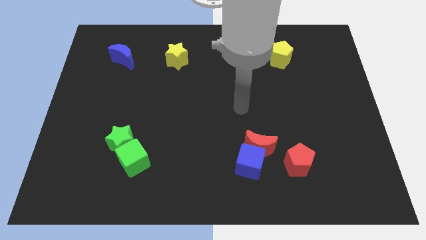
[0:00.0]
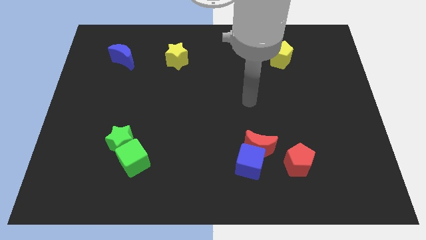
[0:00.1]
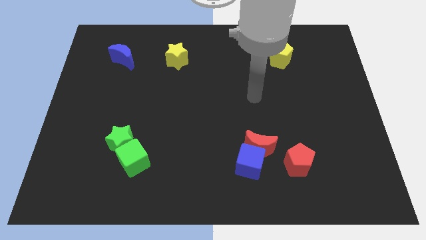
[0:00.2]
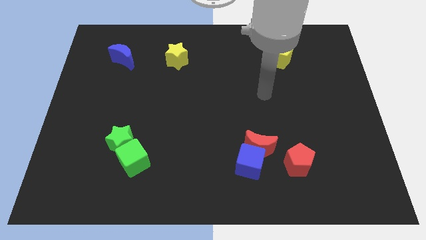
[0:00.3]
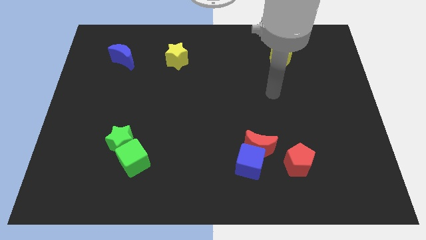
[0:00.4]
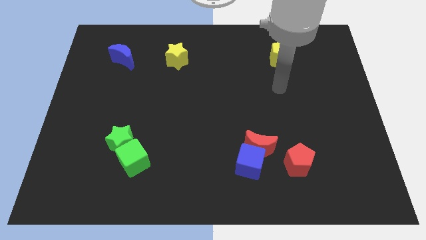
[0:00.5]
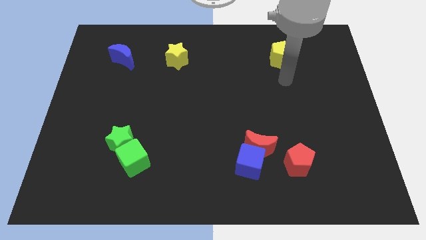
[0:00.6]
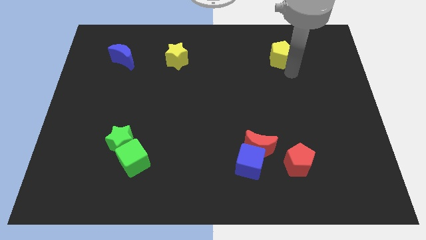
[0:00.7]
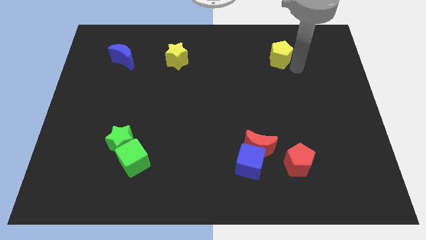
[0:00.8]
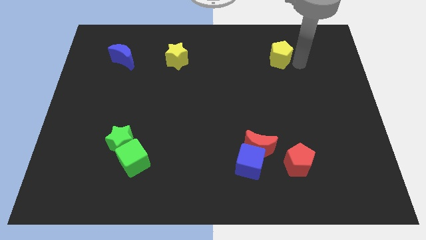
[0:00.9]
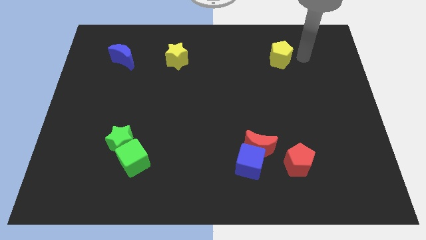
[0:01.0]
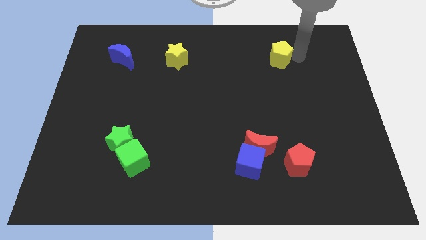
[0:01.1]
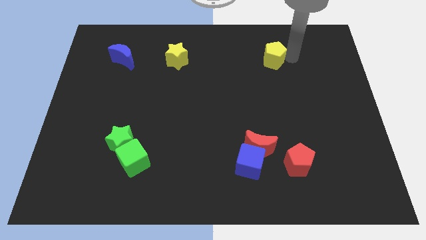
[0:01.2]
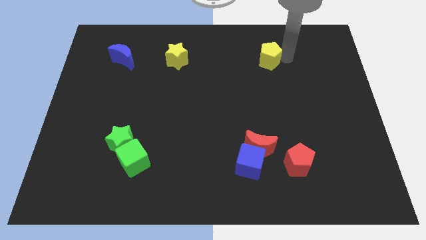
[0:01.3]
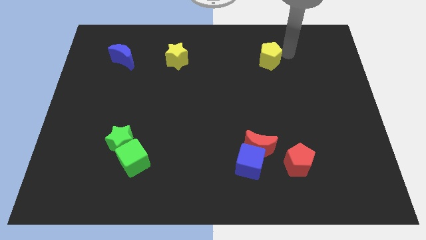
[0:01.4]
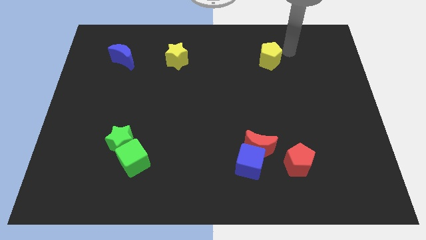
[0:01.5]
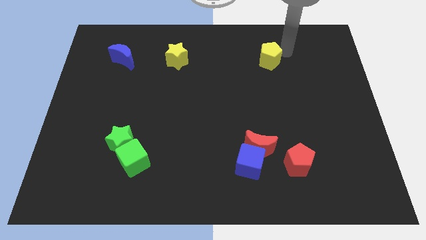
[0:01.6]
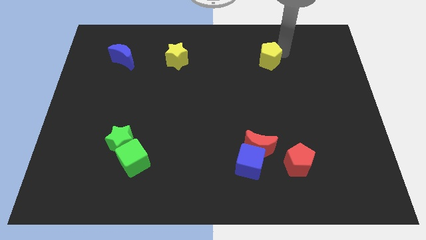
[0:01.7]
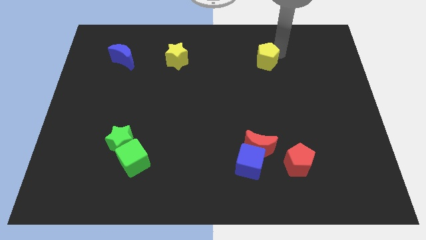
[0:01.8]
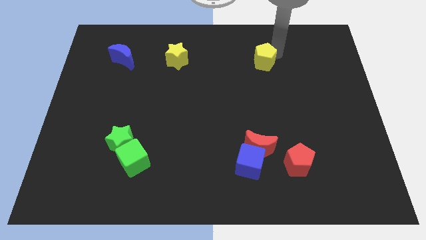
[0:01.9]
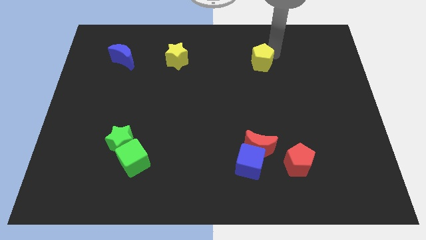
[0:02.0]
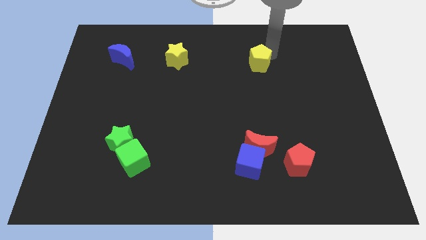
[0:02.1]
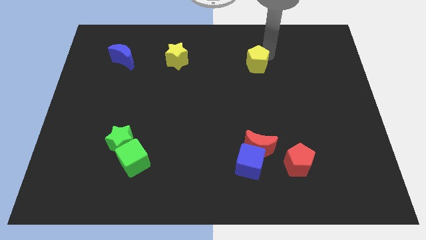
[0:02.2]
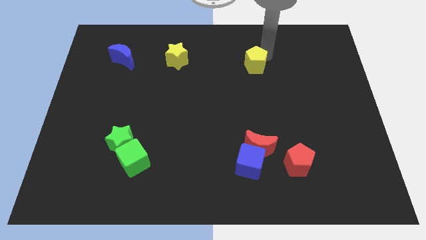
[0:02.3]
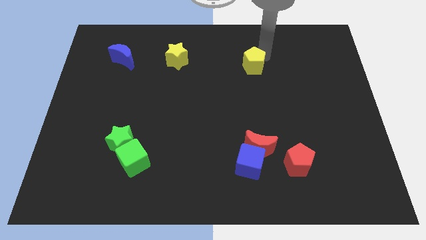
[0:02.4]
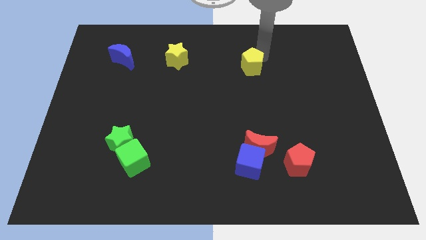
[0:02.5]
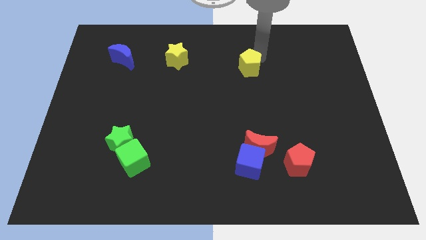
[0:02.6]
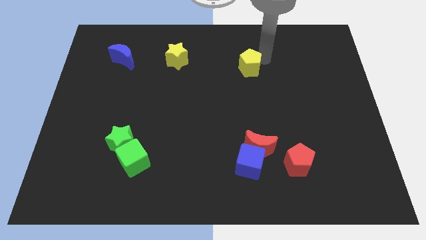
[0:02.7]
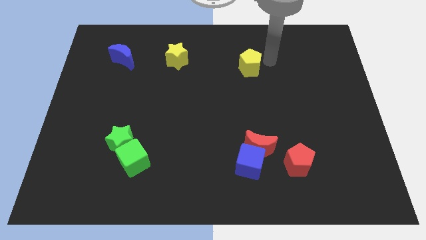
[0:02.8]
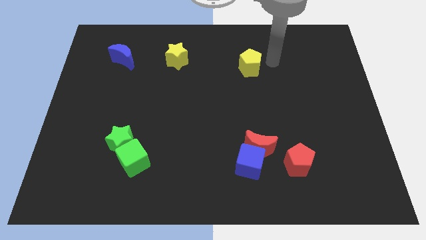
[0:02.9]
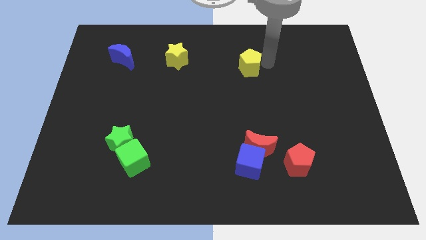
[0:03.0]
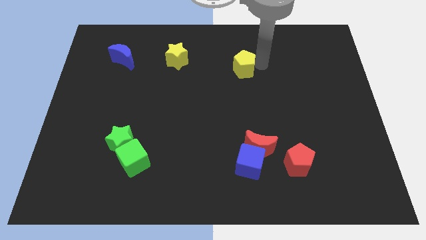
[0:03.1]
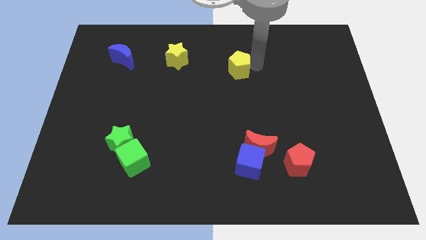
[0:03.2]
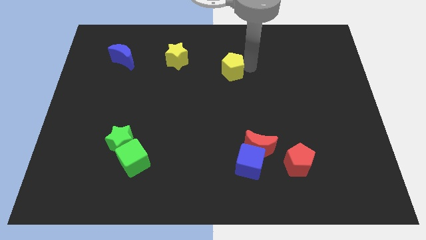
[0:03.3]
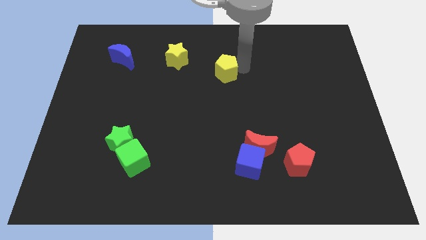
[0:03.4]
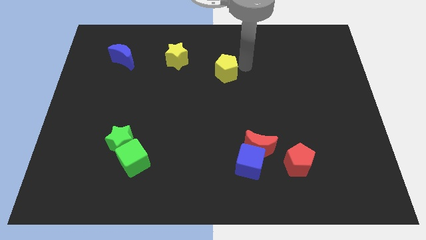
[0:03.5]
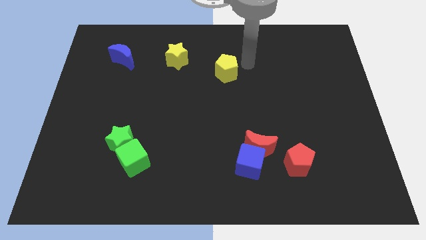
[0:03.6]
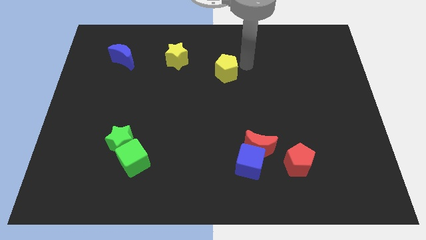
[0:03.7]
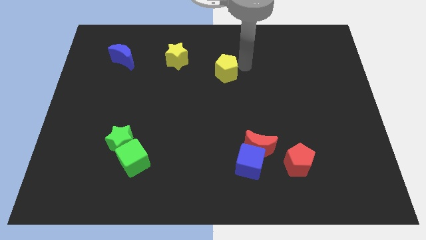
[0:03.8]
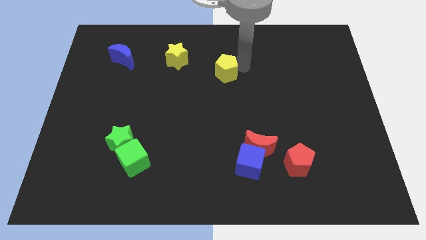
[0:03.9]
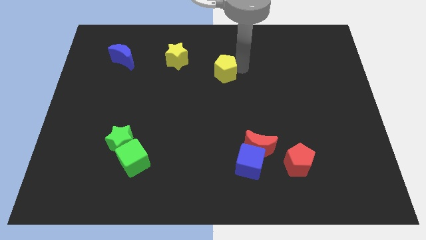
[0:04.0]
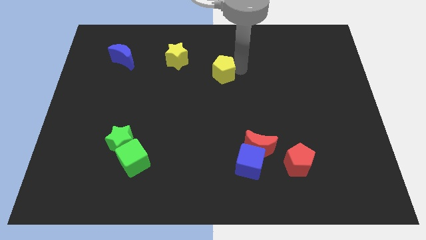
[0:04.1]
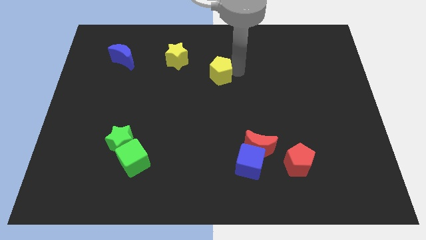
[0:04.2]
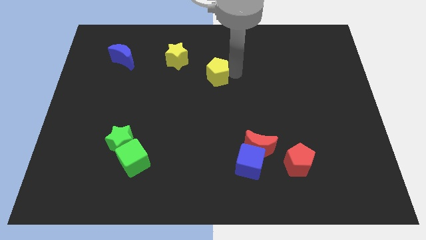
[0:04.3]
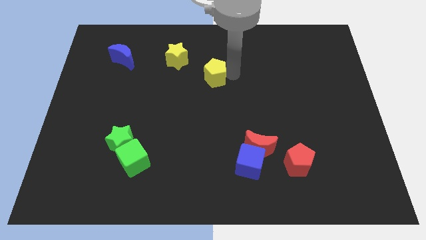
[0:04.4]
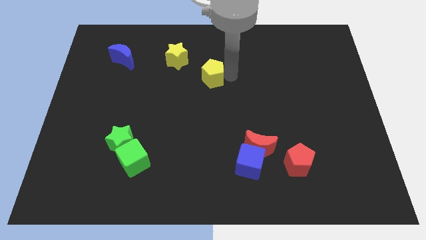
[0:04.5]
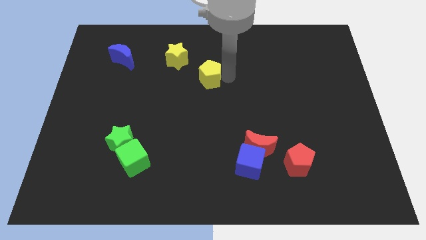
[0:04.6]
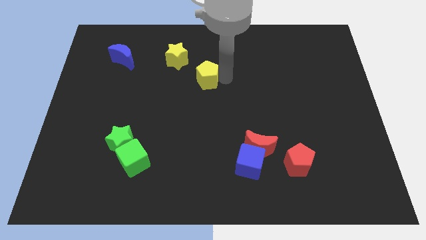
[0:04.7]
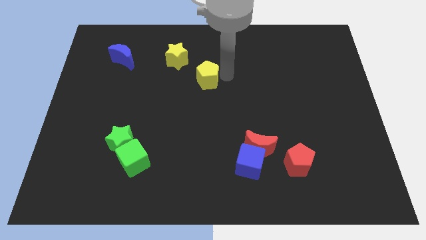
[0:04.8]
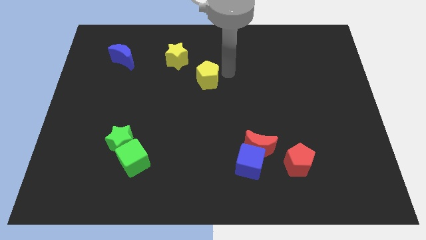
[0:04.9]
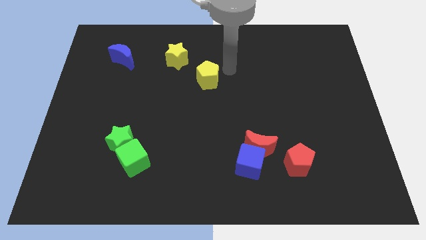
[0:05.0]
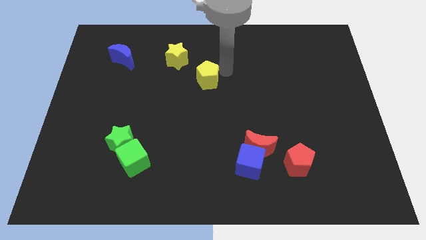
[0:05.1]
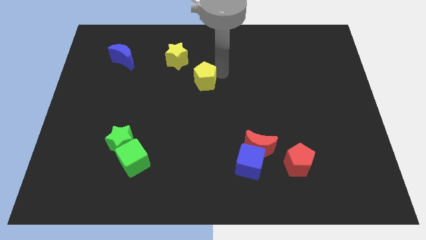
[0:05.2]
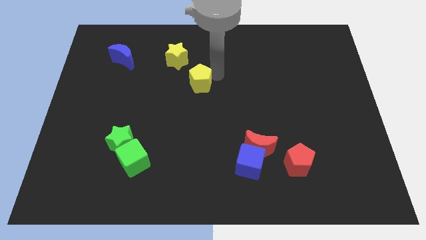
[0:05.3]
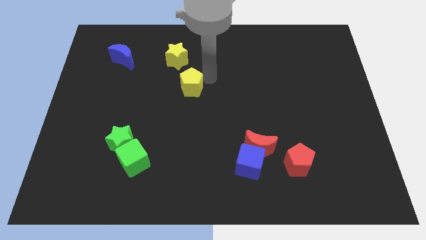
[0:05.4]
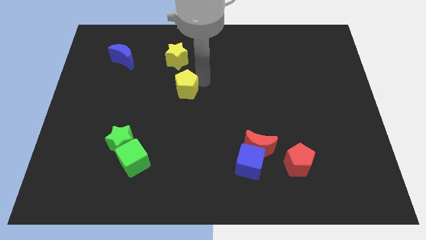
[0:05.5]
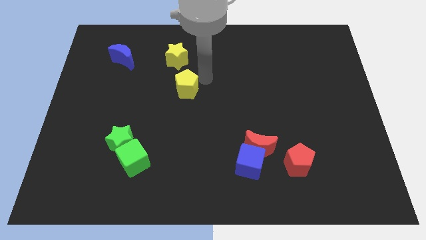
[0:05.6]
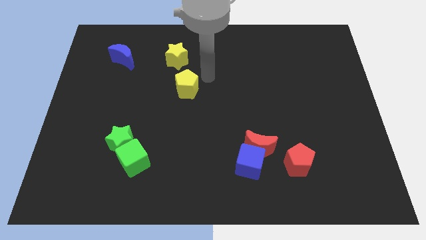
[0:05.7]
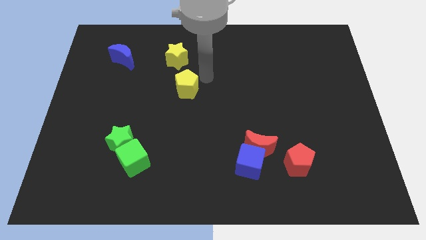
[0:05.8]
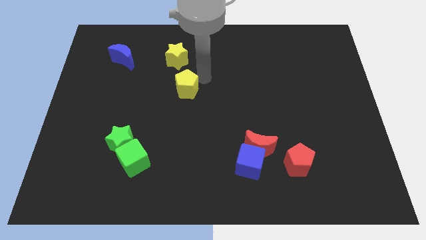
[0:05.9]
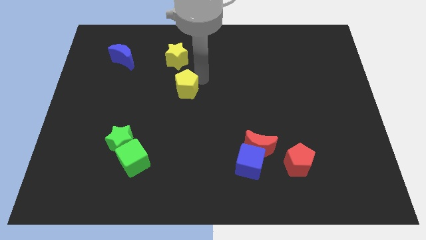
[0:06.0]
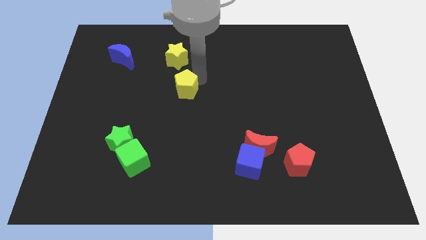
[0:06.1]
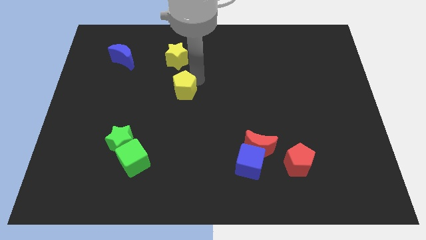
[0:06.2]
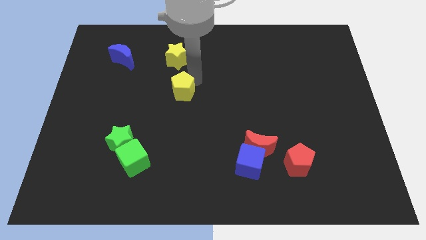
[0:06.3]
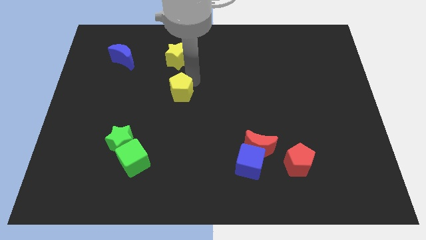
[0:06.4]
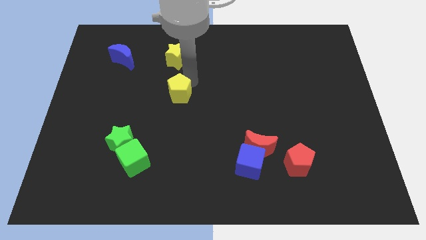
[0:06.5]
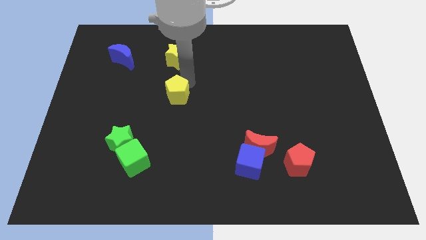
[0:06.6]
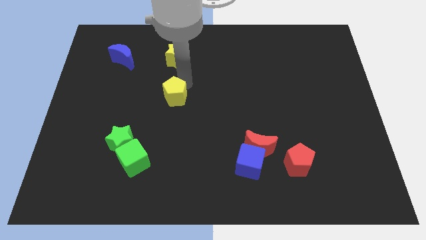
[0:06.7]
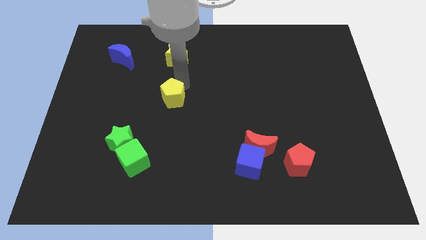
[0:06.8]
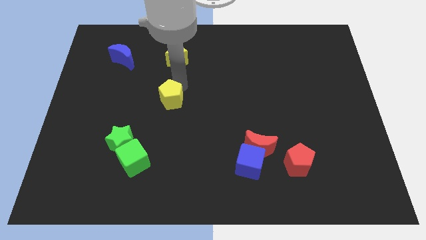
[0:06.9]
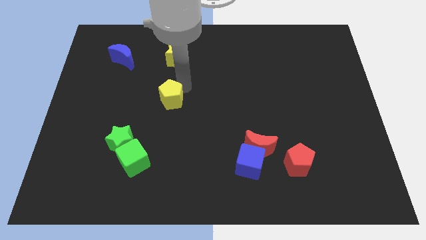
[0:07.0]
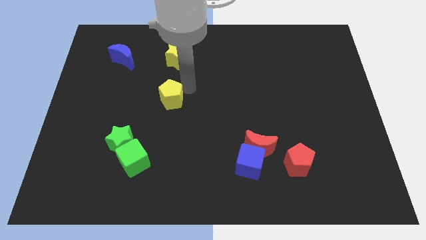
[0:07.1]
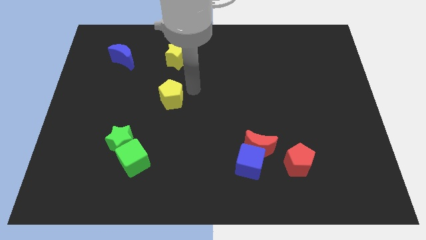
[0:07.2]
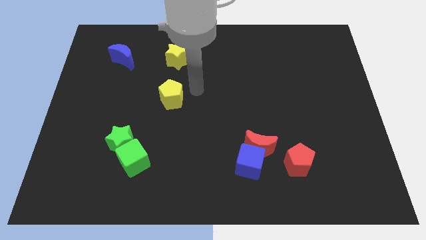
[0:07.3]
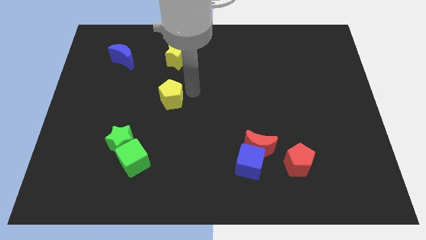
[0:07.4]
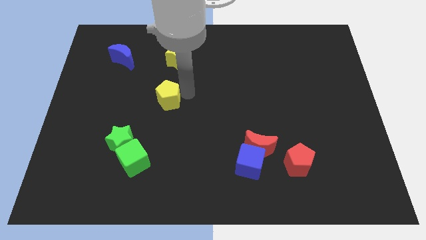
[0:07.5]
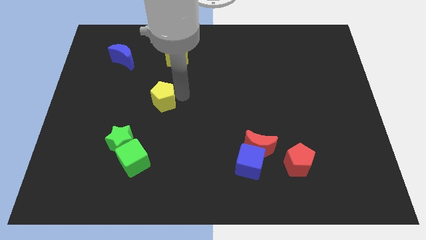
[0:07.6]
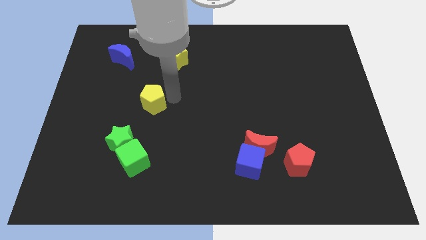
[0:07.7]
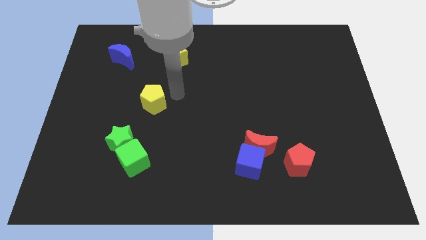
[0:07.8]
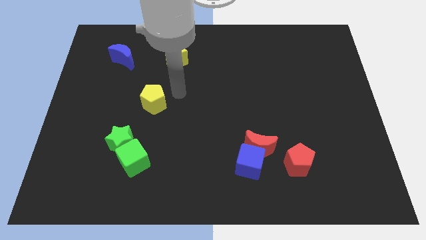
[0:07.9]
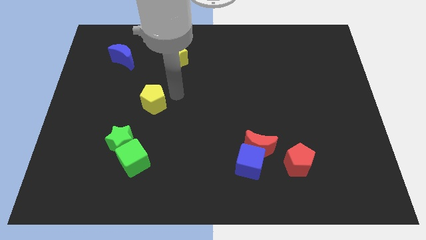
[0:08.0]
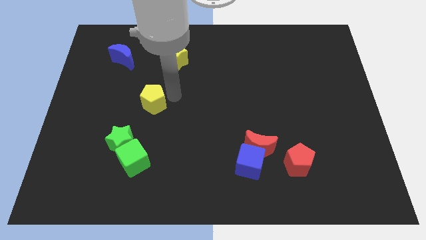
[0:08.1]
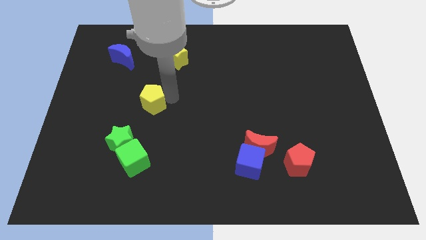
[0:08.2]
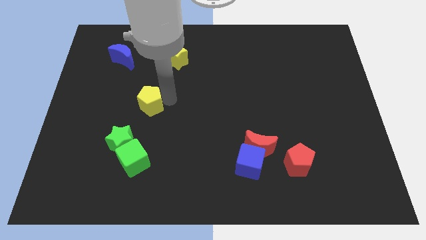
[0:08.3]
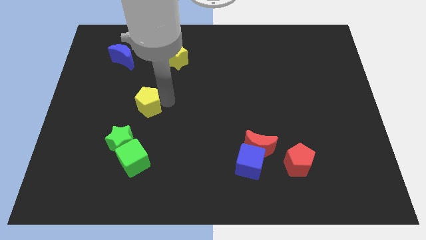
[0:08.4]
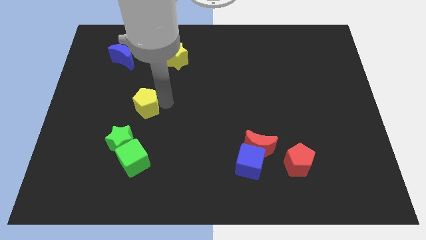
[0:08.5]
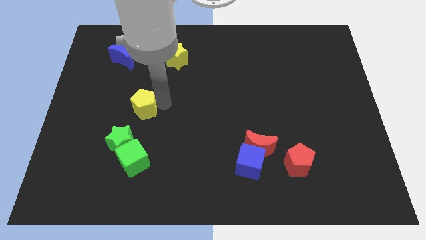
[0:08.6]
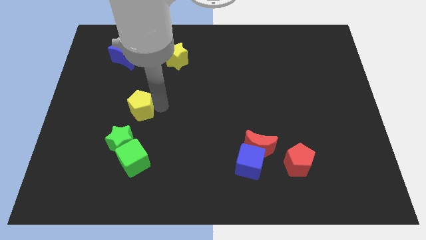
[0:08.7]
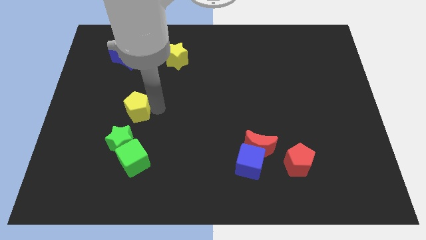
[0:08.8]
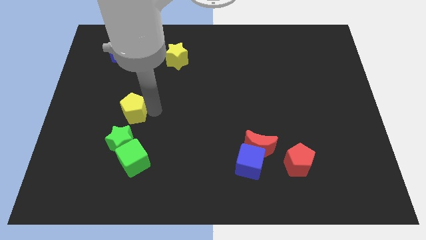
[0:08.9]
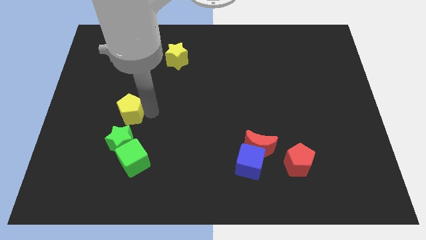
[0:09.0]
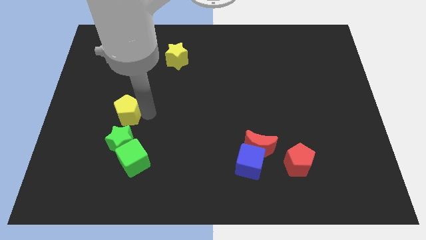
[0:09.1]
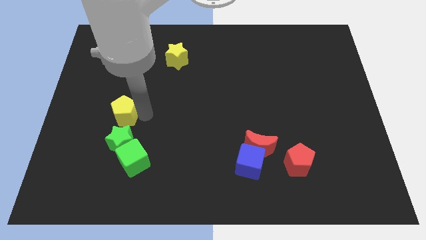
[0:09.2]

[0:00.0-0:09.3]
push the yellow pentagon diagonally up and to the left of the green star
